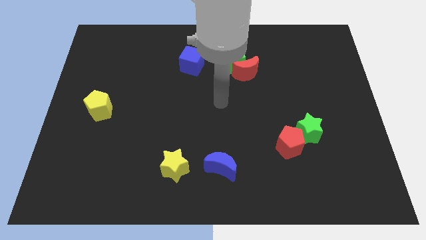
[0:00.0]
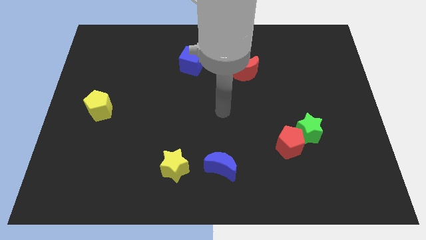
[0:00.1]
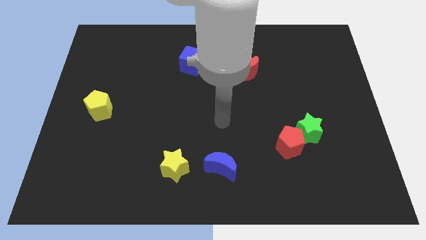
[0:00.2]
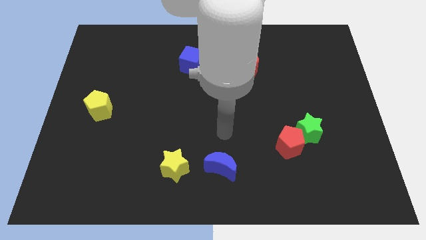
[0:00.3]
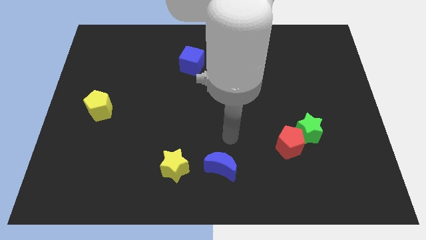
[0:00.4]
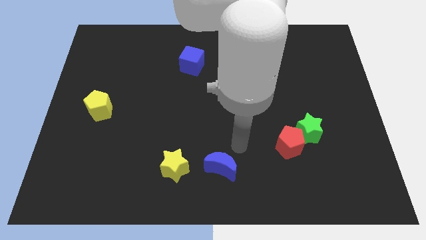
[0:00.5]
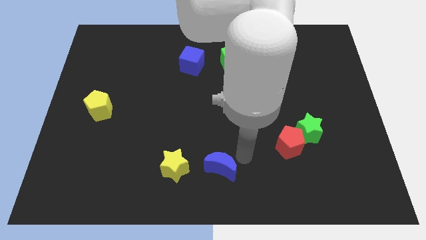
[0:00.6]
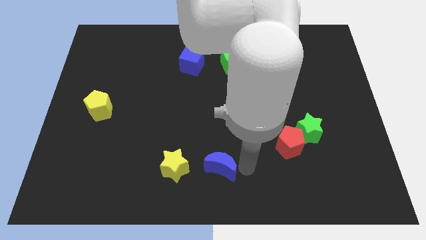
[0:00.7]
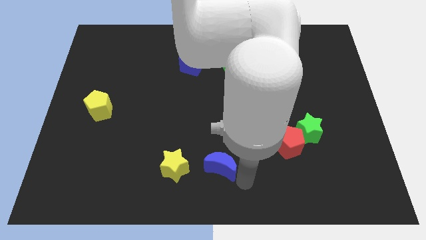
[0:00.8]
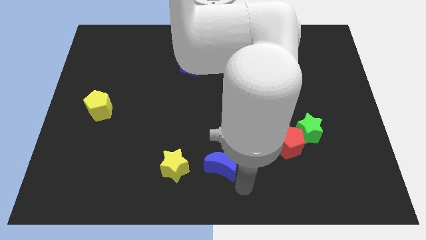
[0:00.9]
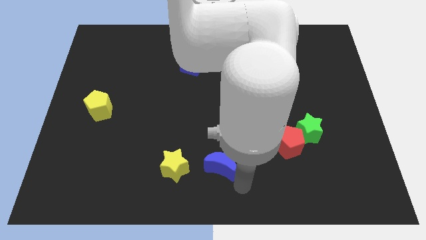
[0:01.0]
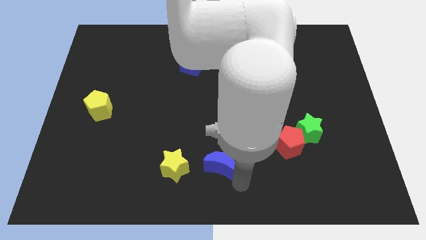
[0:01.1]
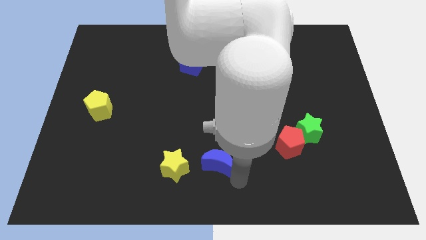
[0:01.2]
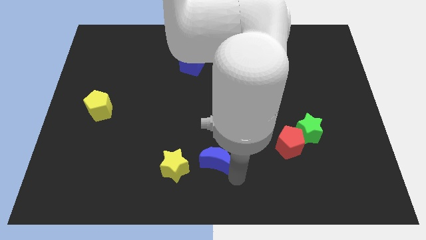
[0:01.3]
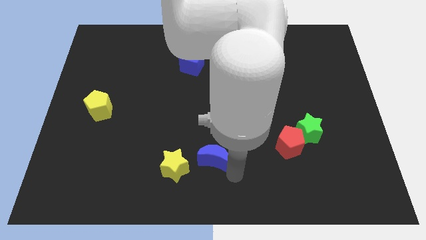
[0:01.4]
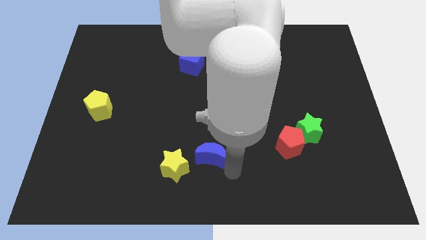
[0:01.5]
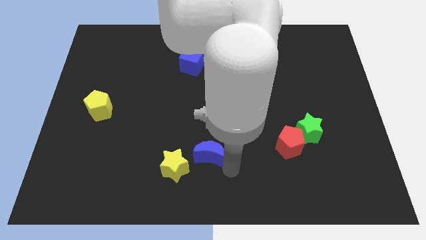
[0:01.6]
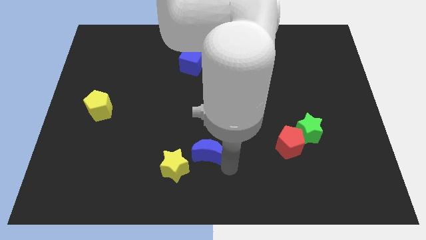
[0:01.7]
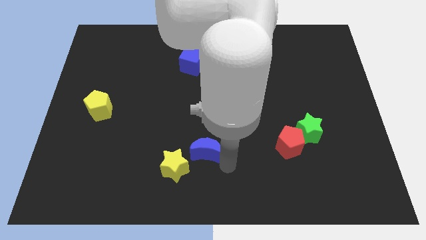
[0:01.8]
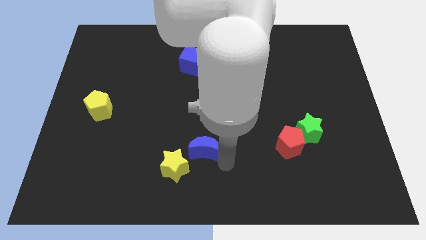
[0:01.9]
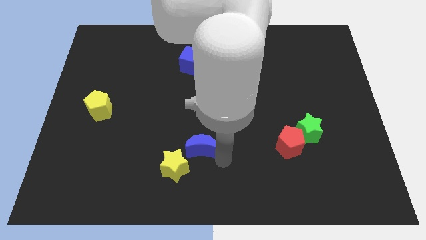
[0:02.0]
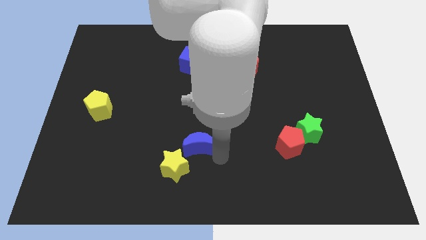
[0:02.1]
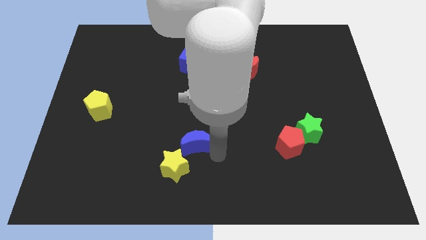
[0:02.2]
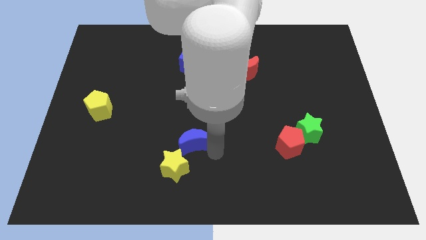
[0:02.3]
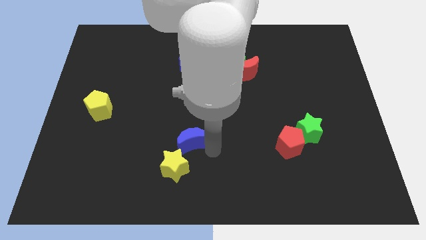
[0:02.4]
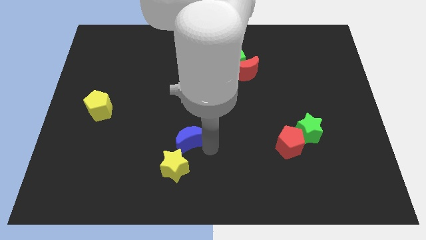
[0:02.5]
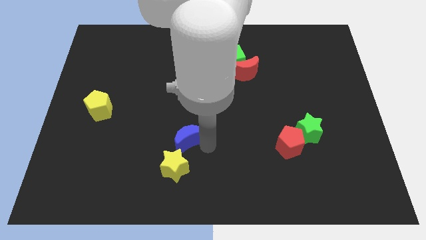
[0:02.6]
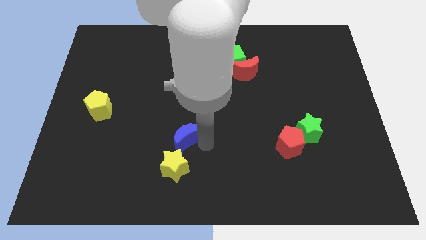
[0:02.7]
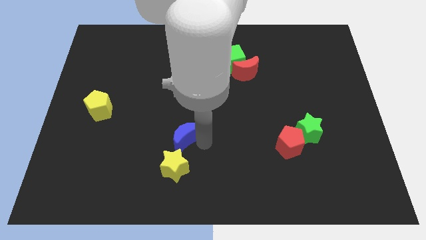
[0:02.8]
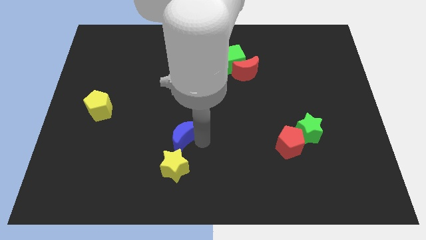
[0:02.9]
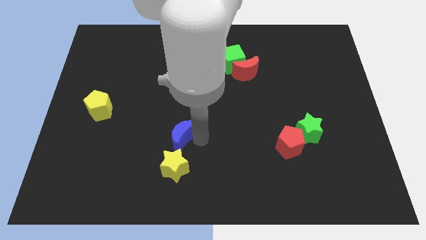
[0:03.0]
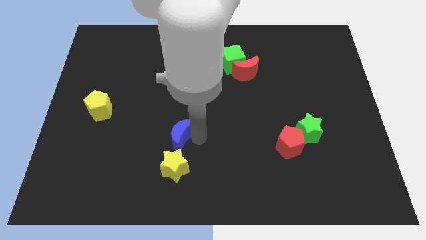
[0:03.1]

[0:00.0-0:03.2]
slide the blue moon to the left slightly

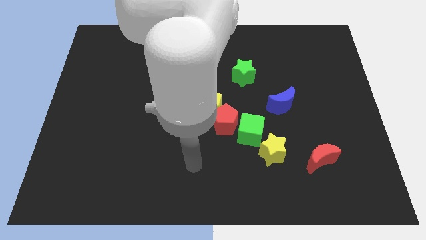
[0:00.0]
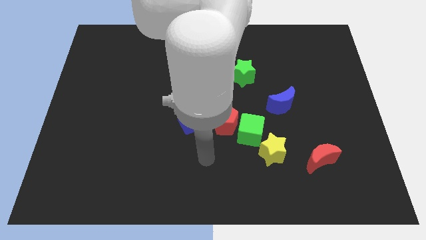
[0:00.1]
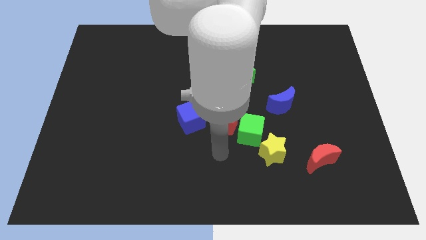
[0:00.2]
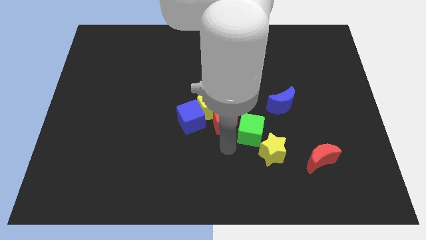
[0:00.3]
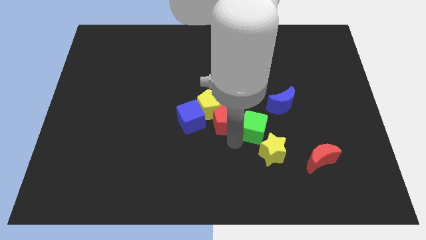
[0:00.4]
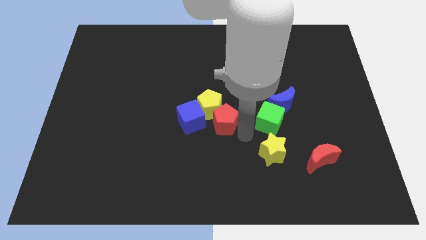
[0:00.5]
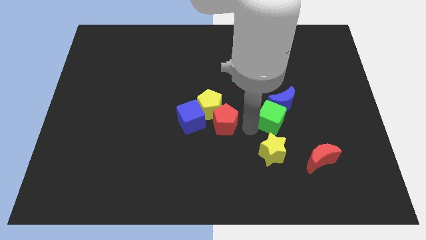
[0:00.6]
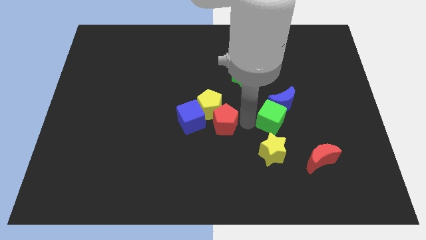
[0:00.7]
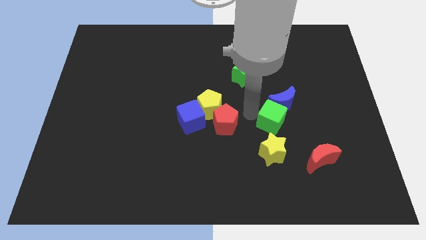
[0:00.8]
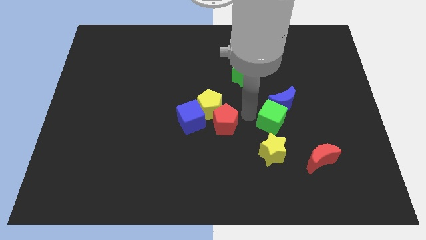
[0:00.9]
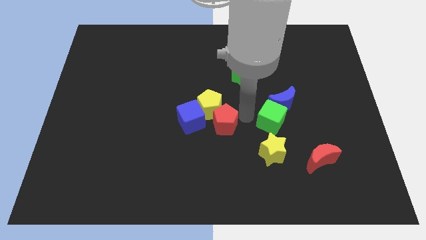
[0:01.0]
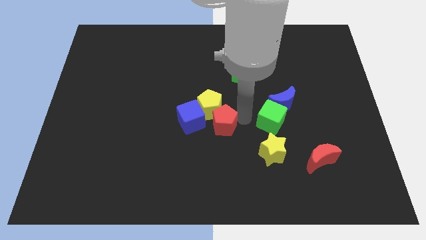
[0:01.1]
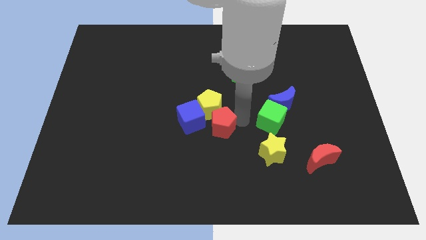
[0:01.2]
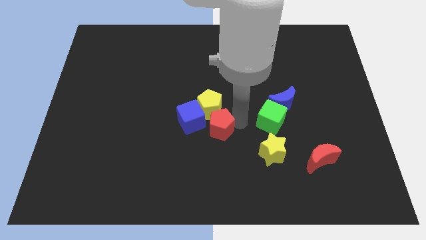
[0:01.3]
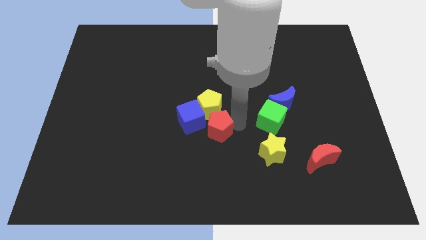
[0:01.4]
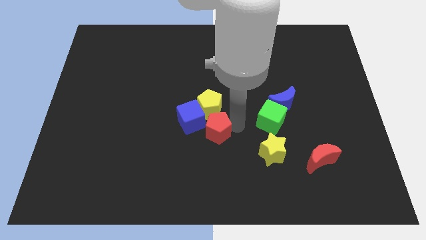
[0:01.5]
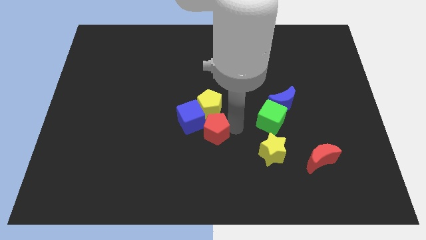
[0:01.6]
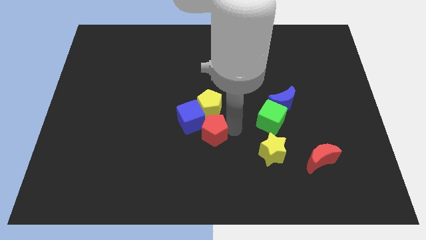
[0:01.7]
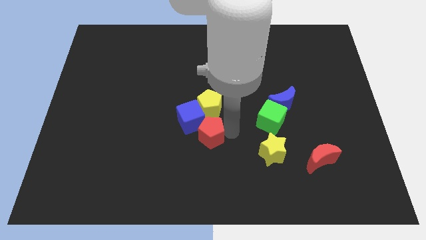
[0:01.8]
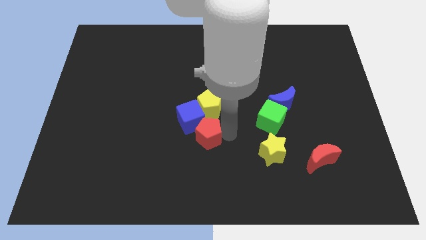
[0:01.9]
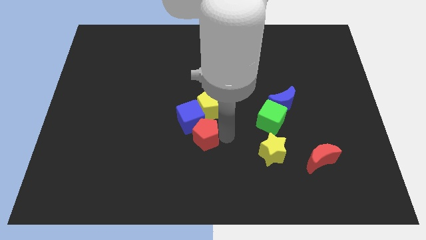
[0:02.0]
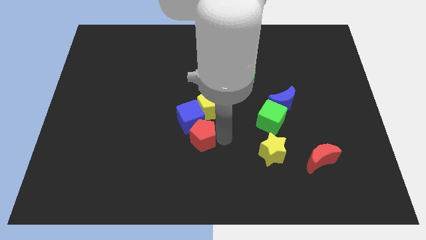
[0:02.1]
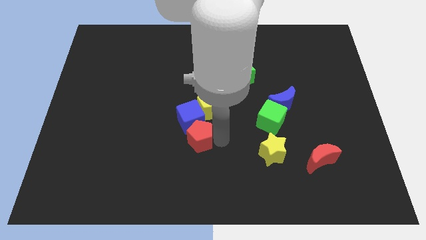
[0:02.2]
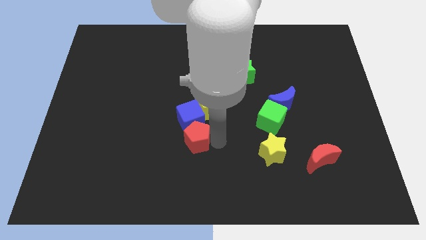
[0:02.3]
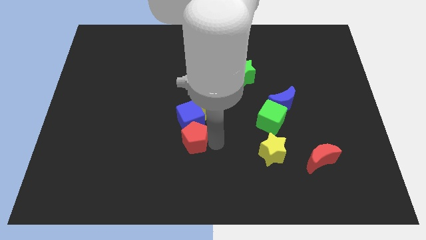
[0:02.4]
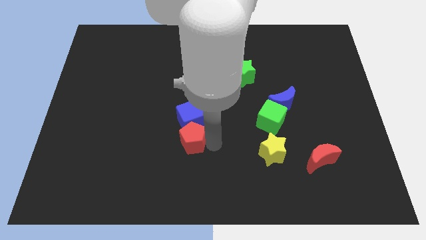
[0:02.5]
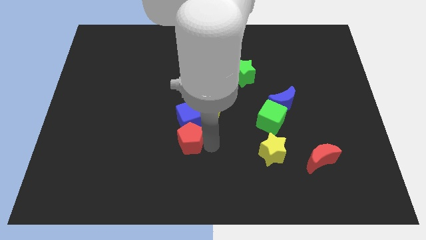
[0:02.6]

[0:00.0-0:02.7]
slide the red pentagon to the left somewhat

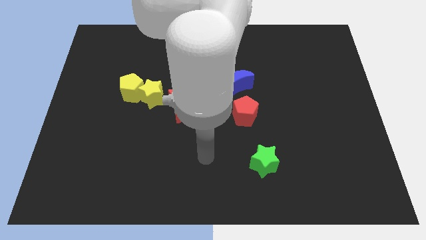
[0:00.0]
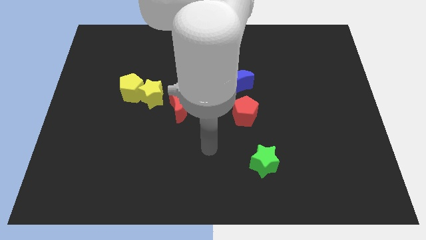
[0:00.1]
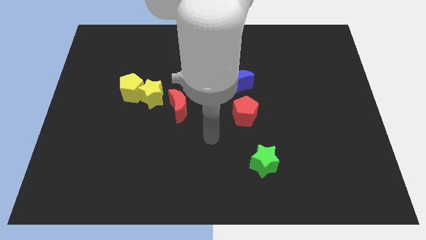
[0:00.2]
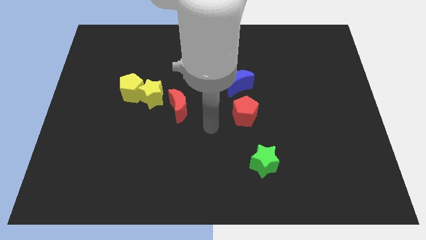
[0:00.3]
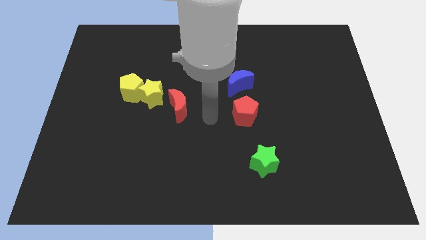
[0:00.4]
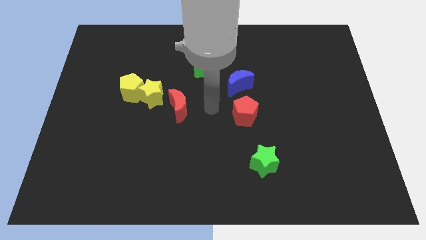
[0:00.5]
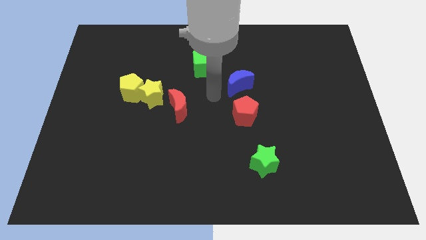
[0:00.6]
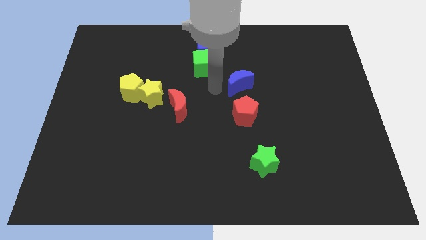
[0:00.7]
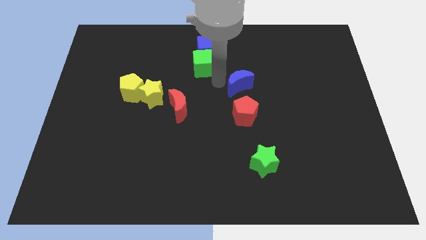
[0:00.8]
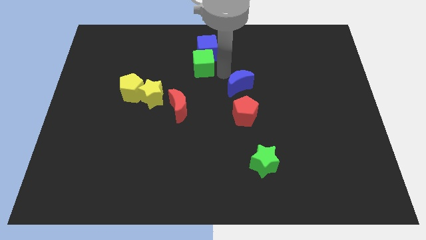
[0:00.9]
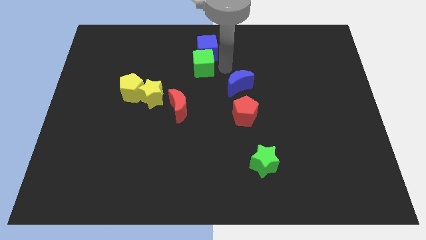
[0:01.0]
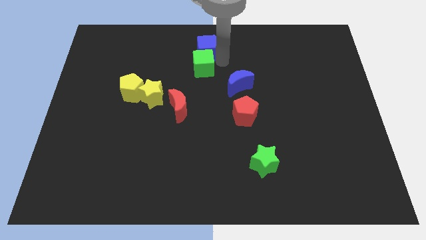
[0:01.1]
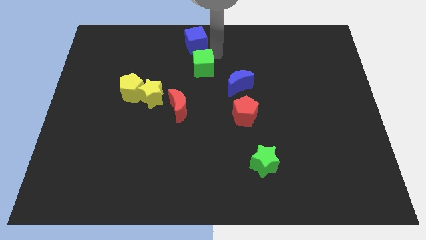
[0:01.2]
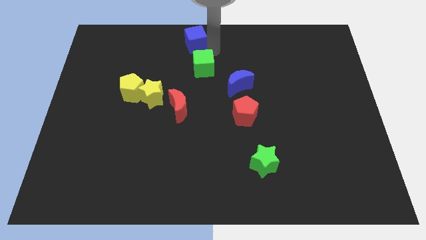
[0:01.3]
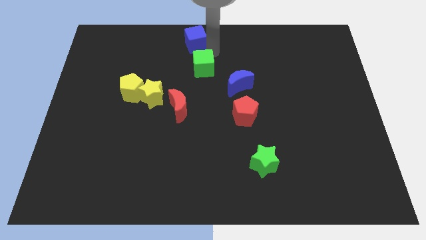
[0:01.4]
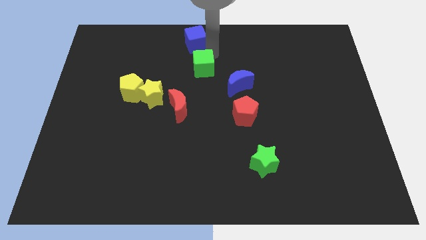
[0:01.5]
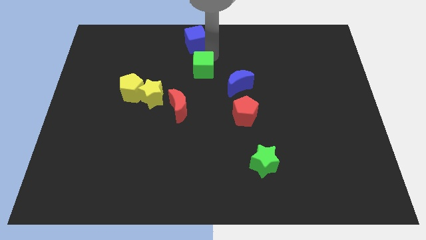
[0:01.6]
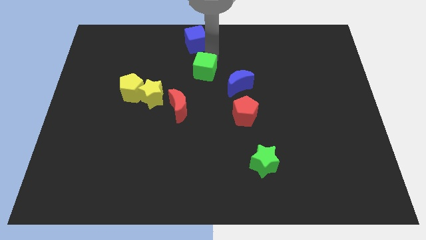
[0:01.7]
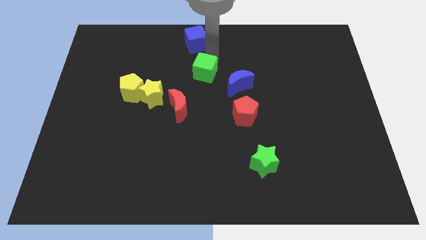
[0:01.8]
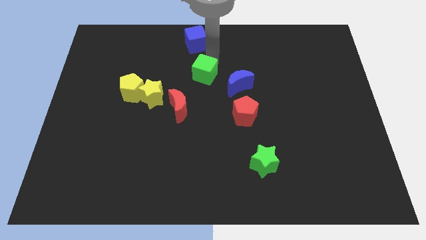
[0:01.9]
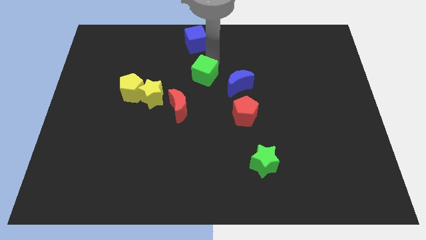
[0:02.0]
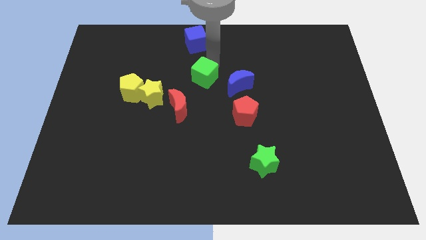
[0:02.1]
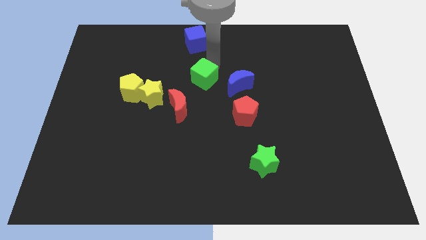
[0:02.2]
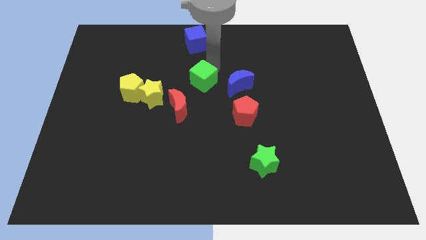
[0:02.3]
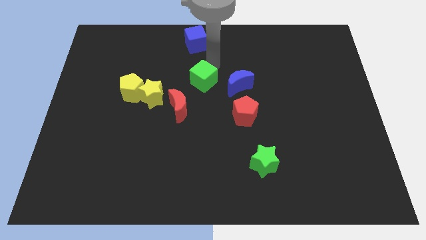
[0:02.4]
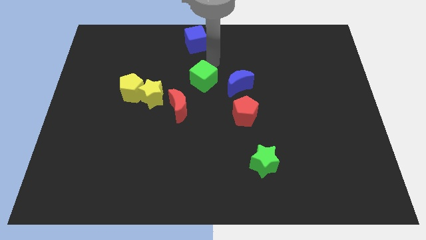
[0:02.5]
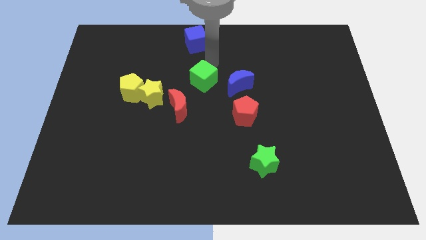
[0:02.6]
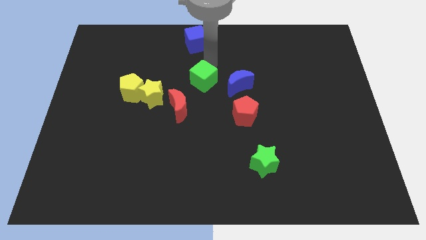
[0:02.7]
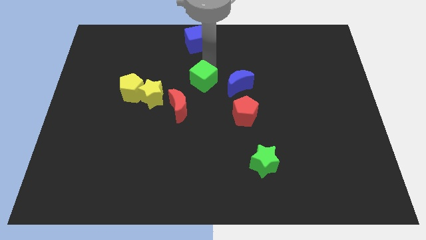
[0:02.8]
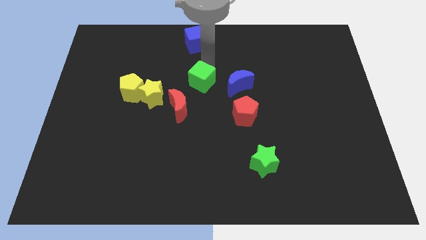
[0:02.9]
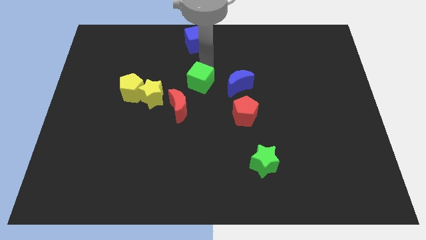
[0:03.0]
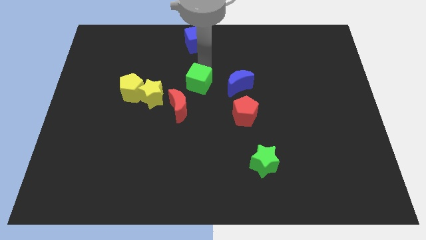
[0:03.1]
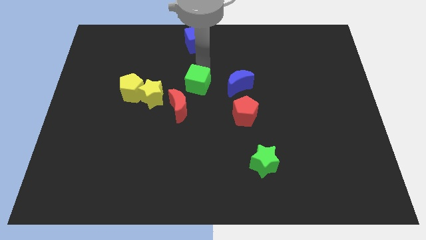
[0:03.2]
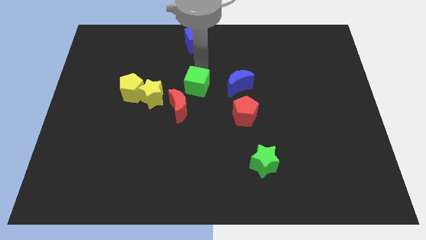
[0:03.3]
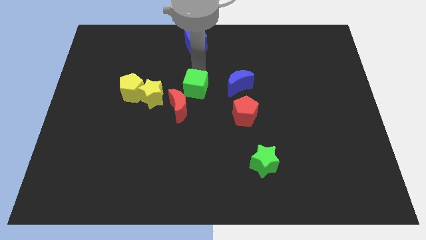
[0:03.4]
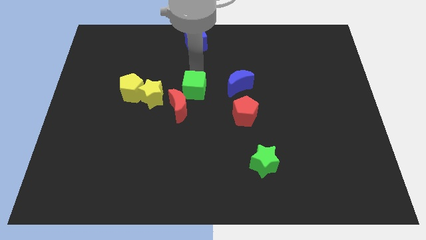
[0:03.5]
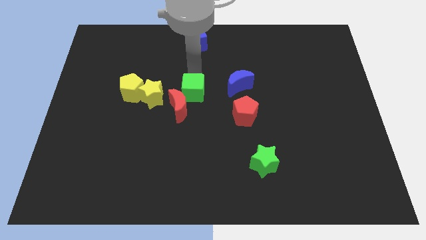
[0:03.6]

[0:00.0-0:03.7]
slightly push the green cube downwards and to the left diagonally
